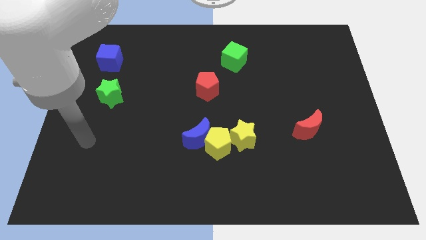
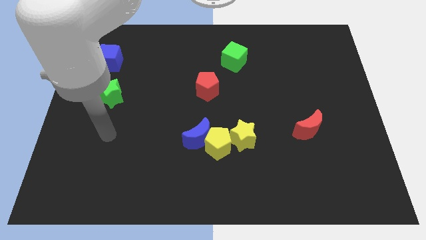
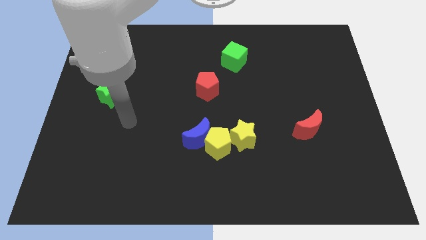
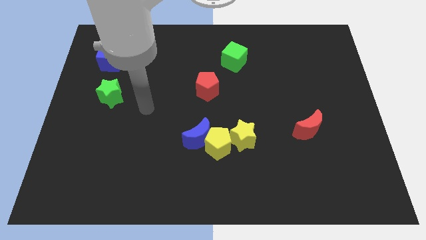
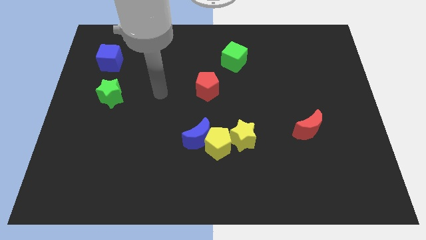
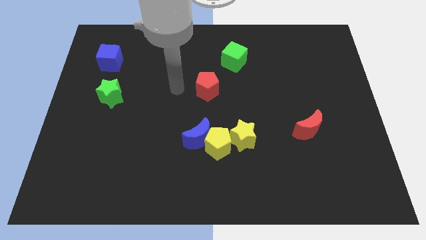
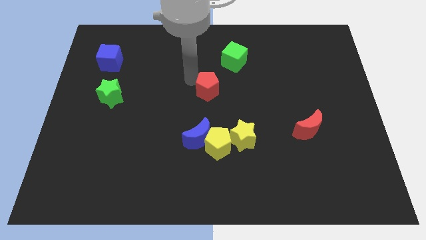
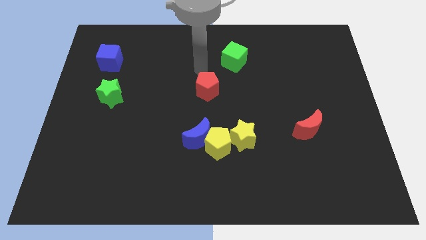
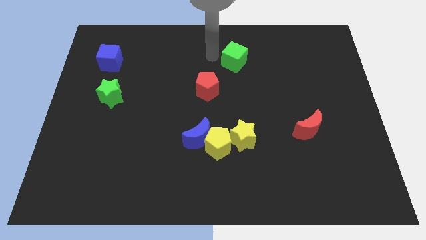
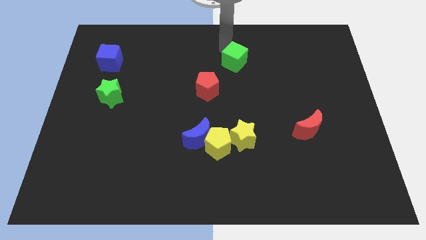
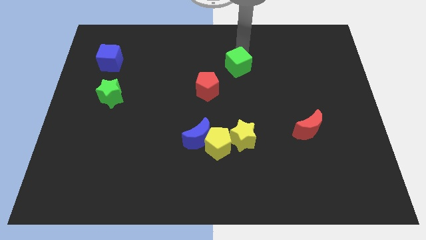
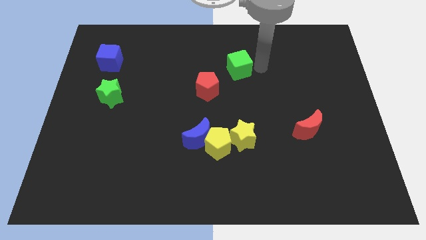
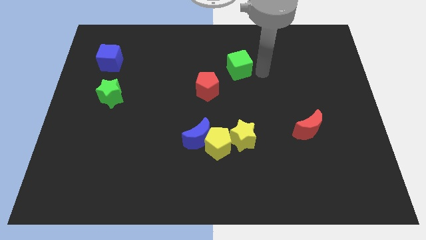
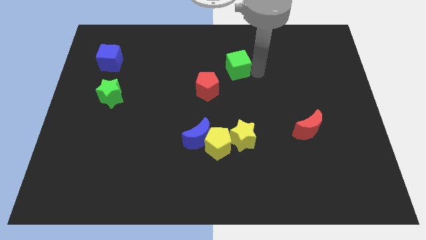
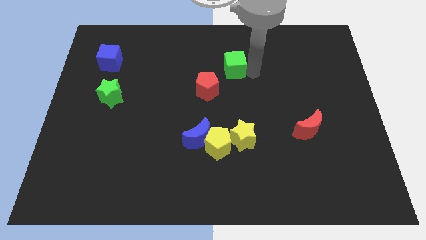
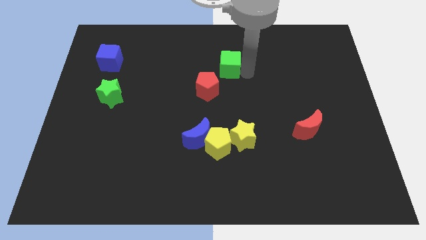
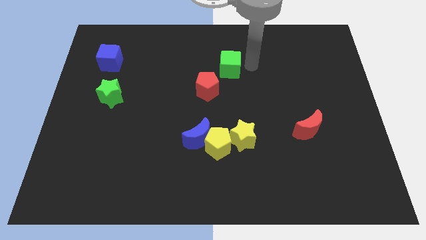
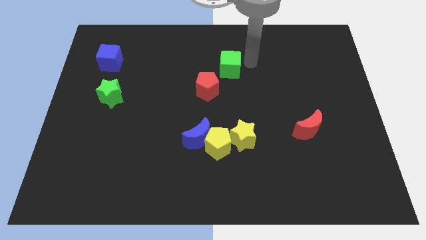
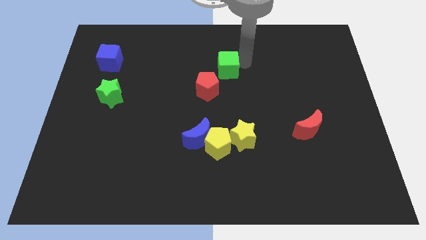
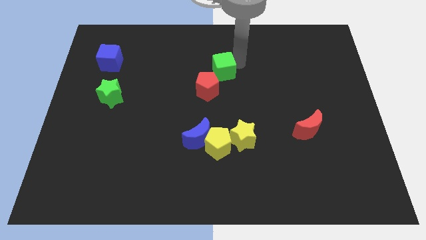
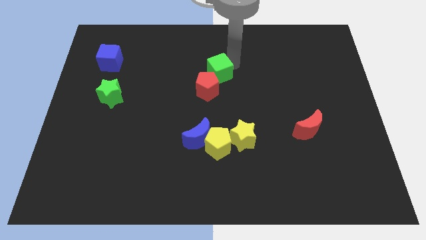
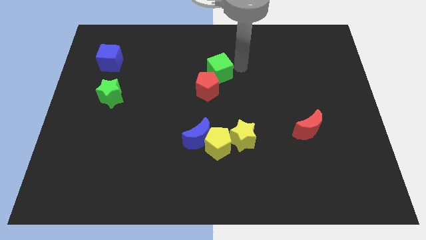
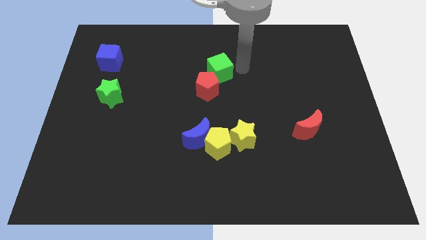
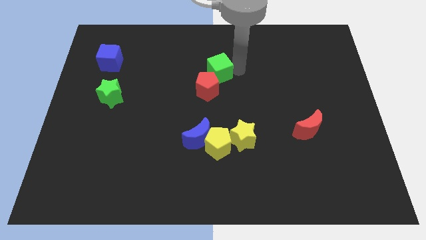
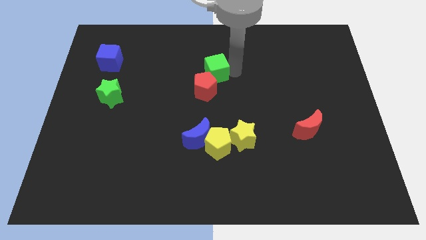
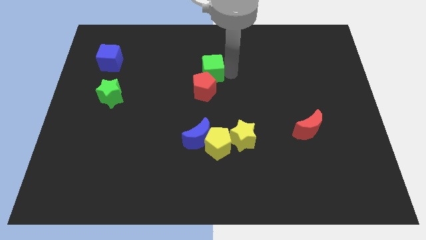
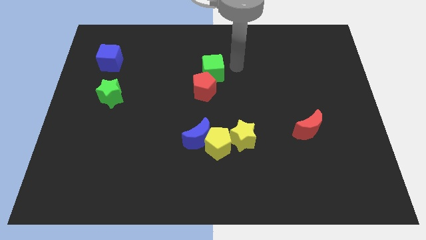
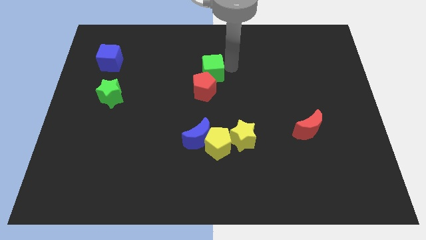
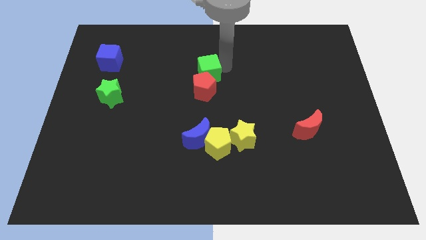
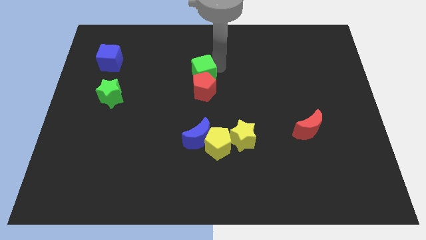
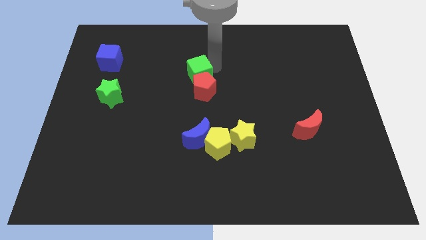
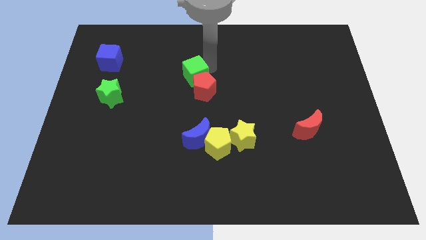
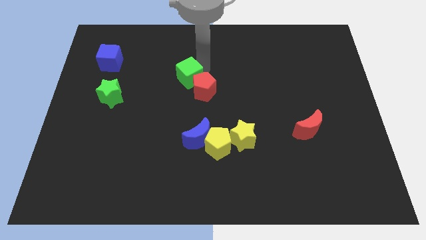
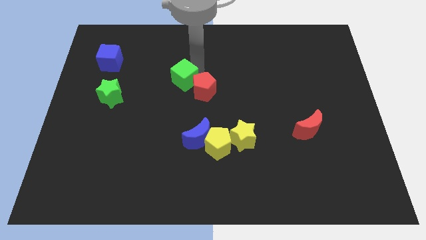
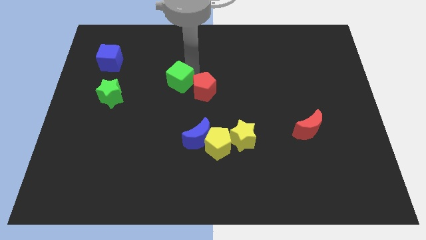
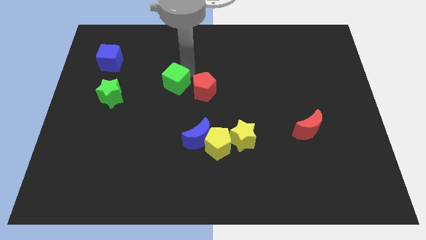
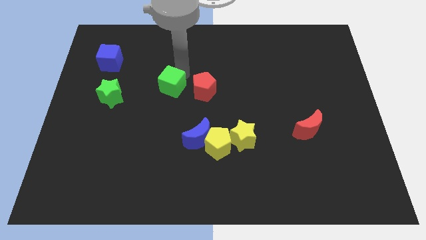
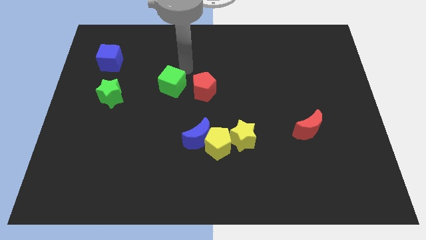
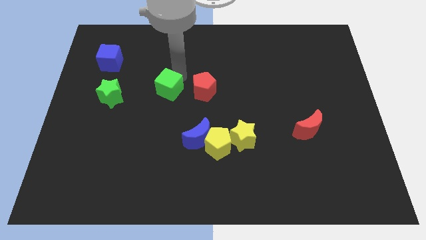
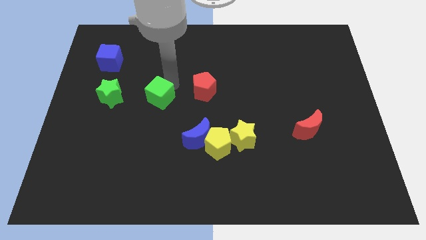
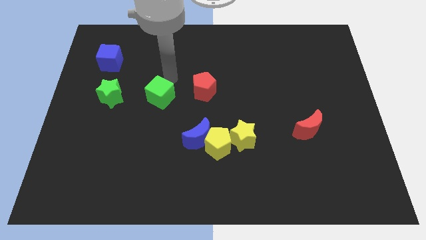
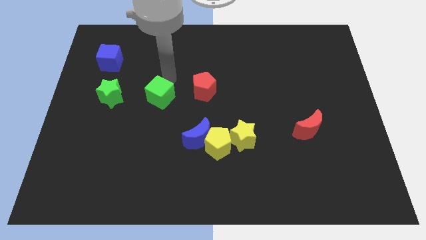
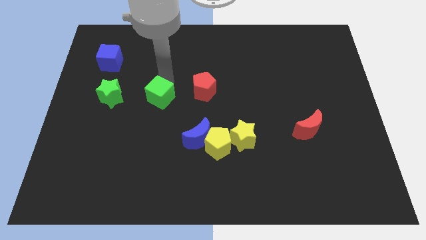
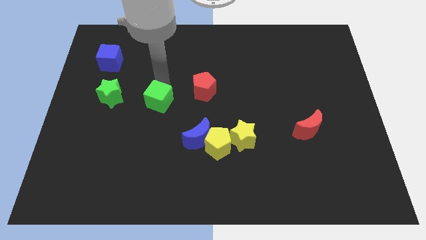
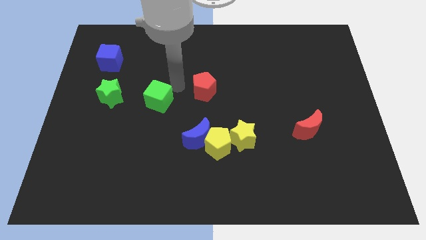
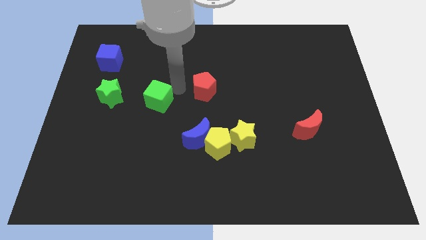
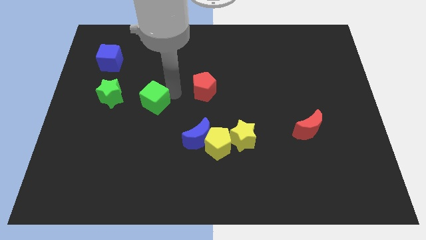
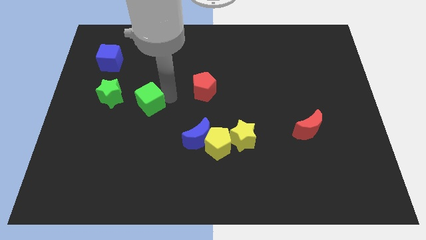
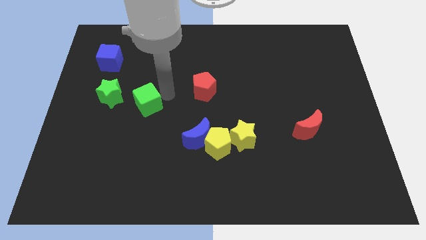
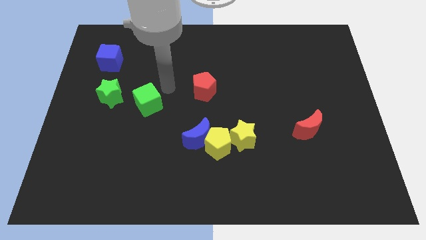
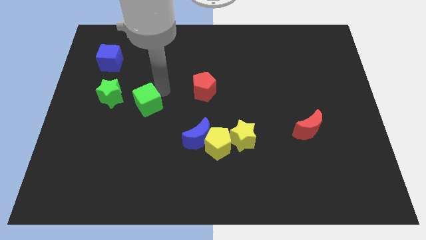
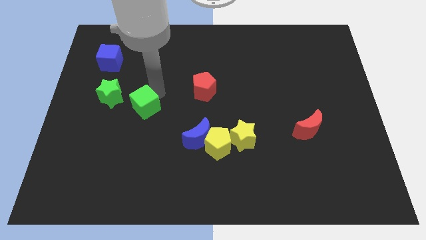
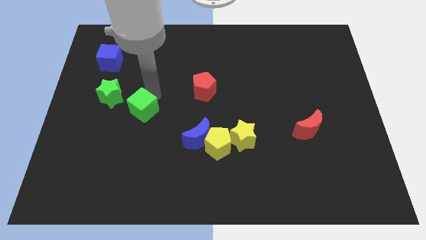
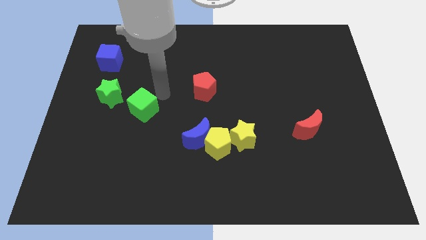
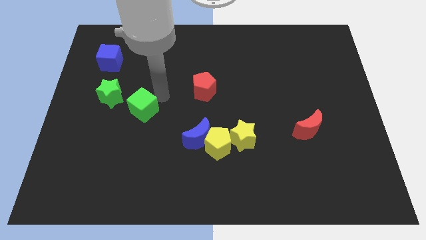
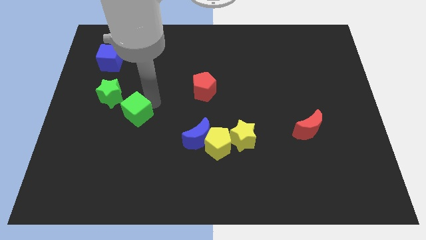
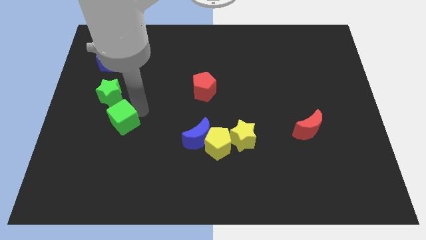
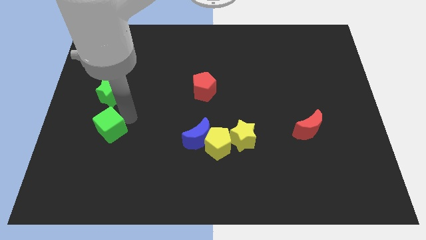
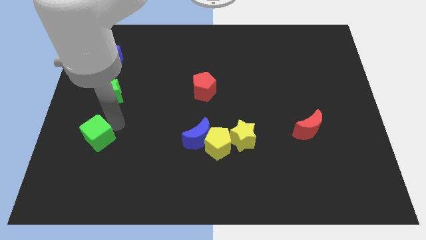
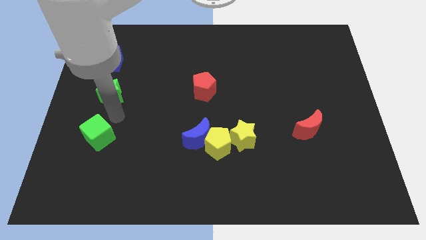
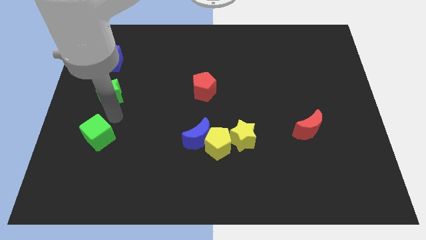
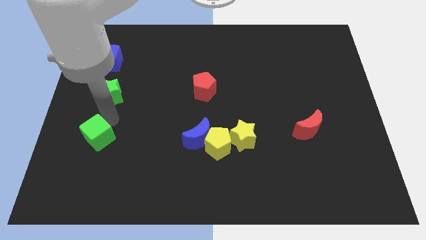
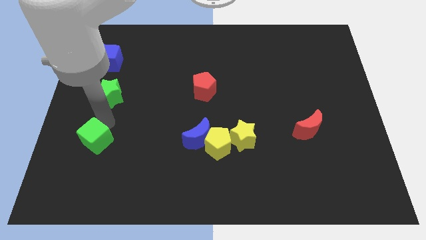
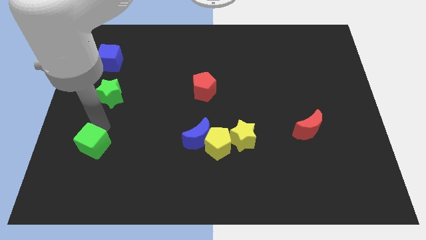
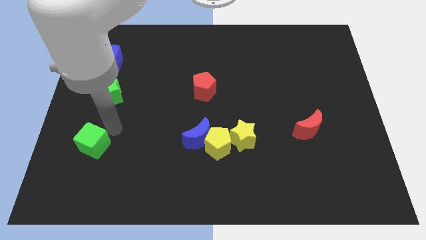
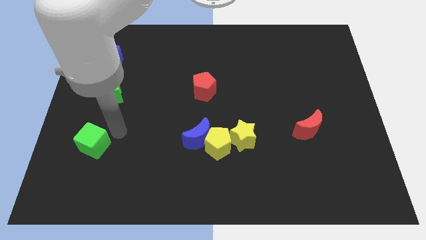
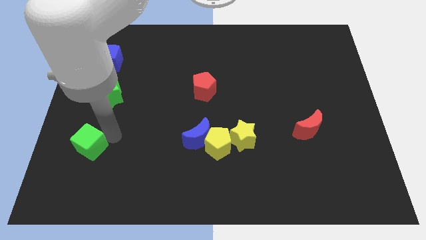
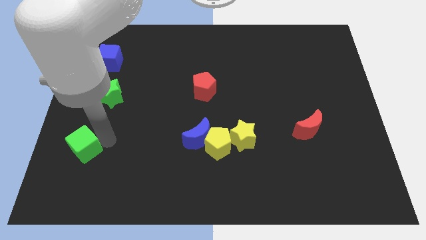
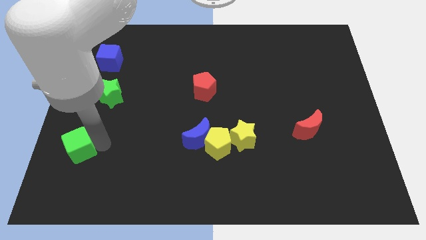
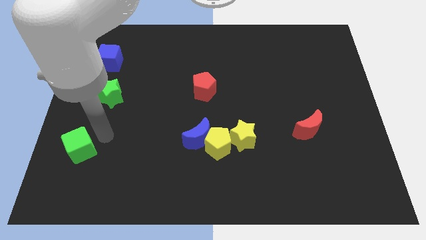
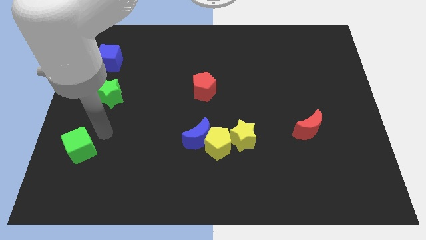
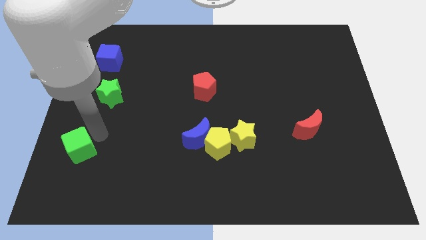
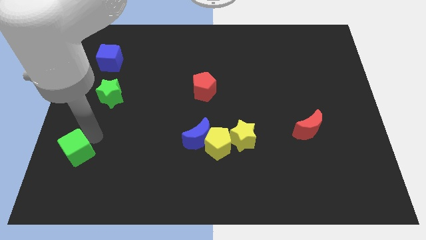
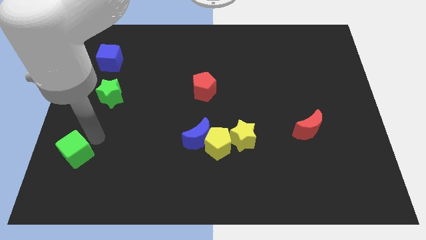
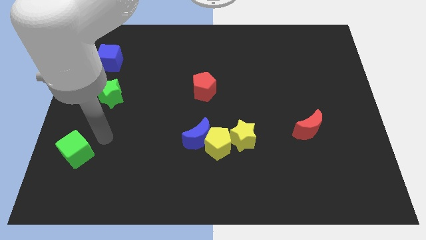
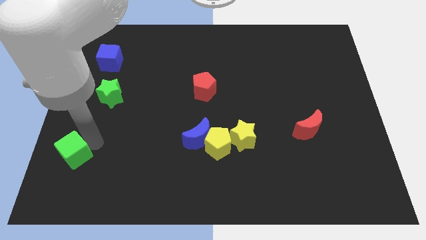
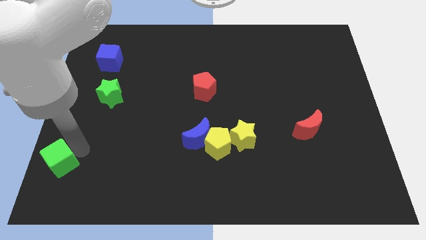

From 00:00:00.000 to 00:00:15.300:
slide the green cube to the bottom left
